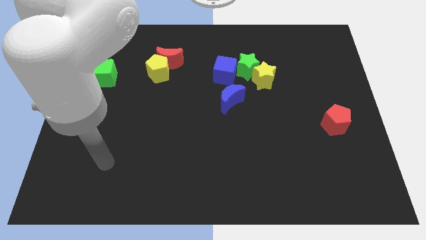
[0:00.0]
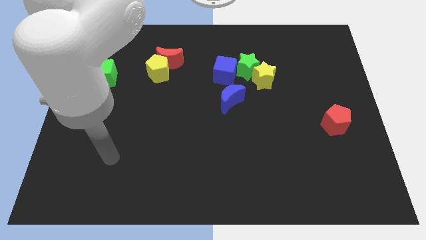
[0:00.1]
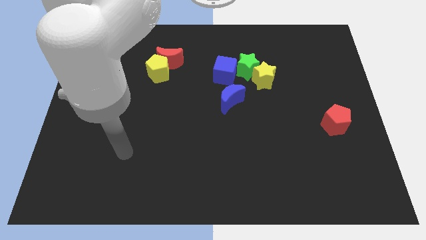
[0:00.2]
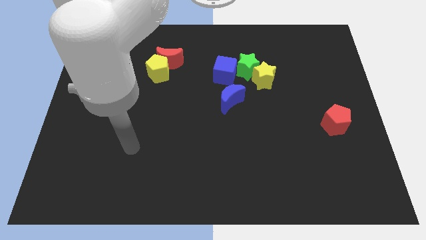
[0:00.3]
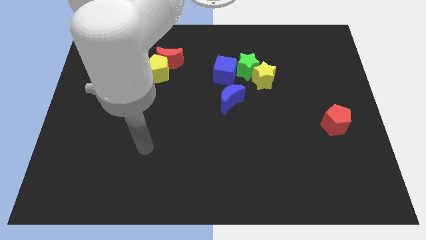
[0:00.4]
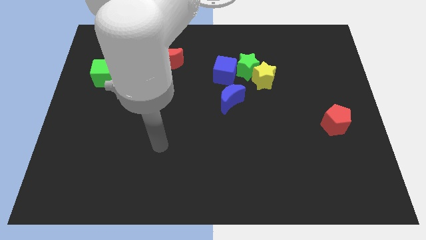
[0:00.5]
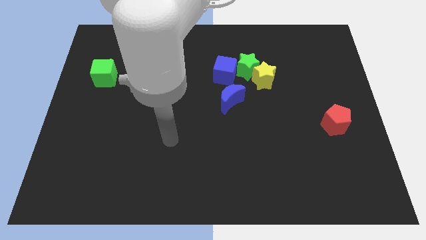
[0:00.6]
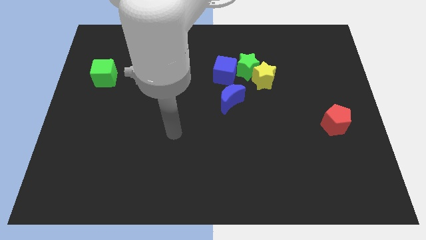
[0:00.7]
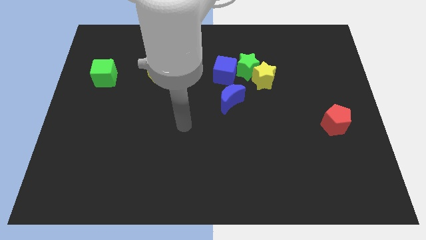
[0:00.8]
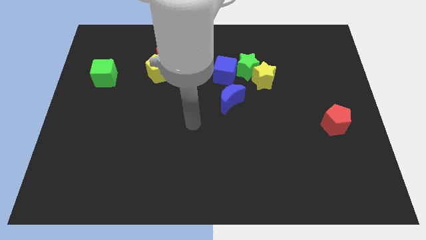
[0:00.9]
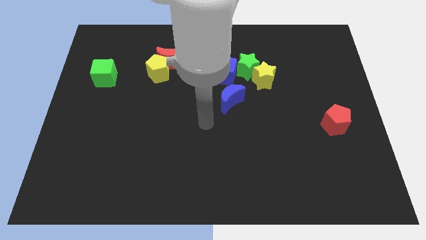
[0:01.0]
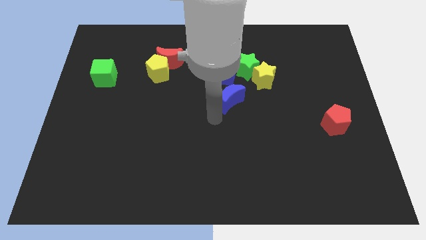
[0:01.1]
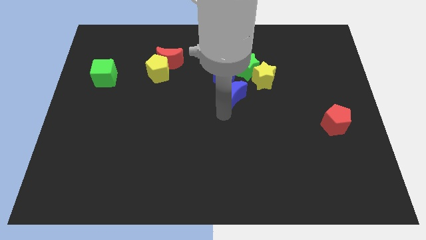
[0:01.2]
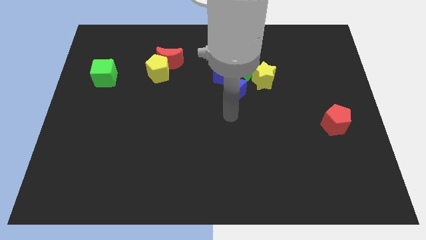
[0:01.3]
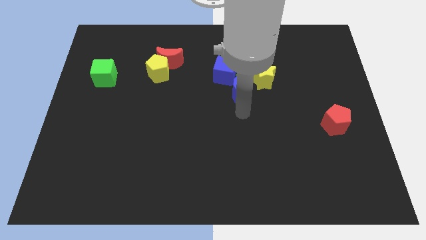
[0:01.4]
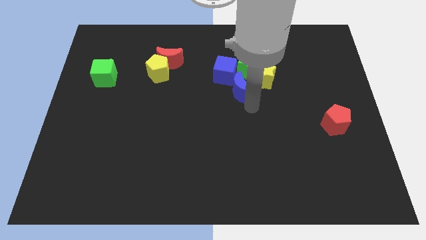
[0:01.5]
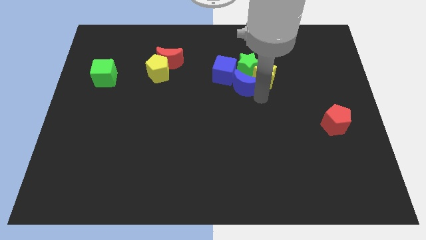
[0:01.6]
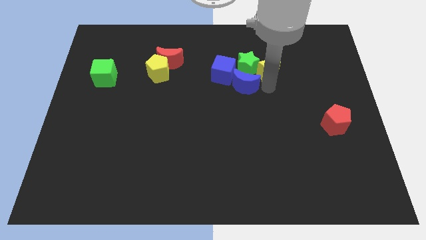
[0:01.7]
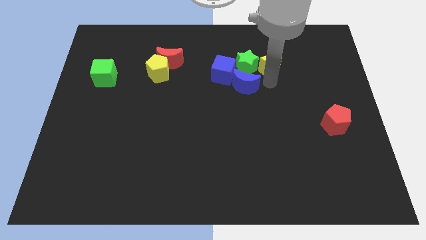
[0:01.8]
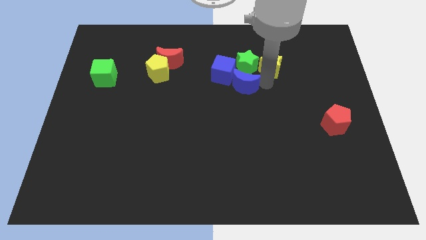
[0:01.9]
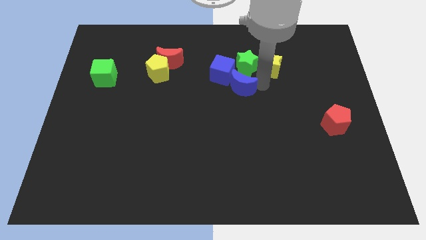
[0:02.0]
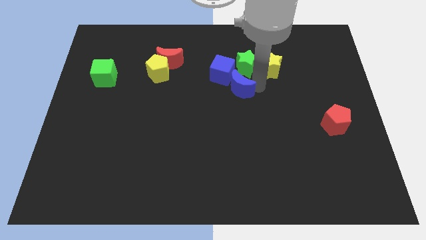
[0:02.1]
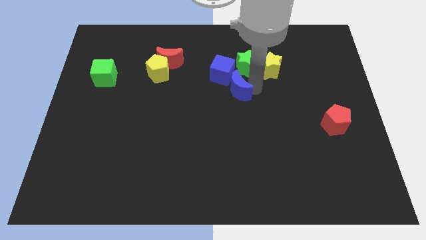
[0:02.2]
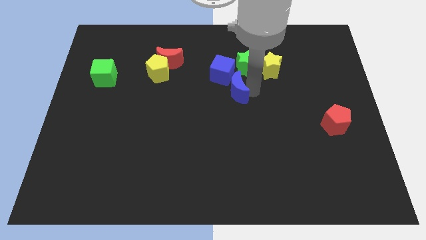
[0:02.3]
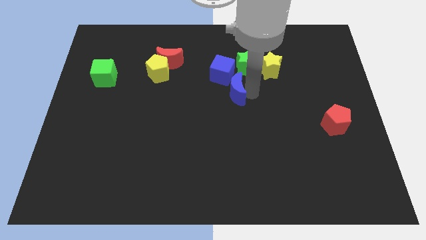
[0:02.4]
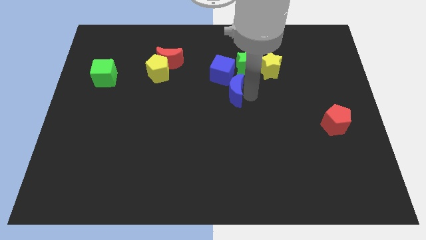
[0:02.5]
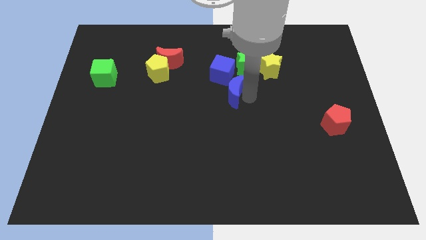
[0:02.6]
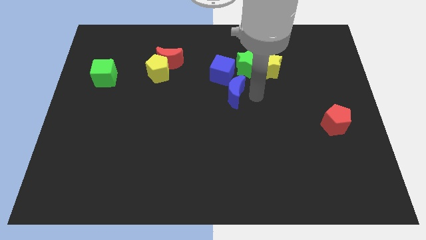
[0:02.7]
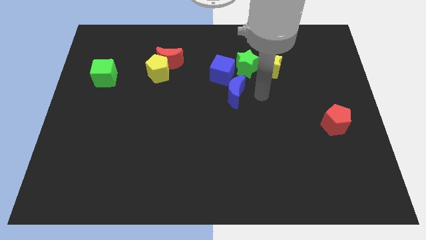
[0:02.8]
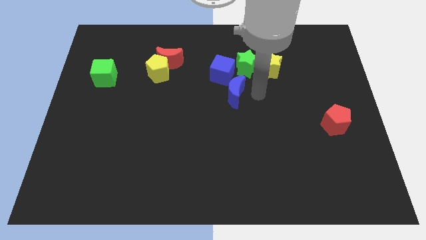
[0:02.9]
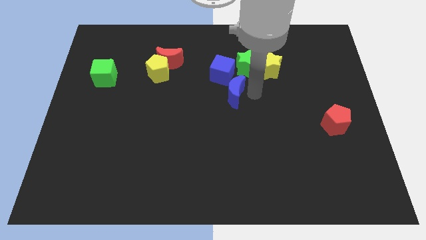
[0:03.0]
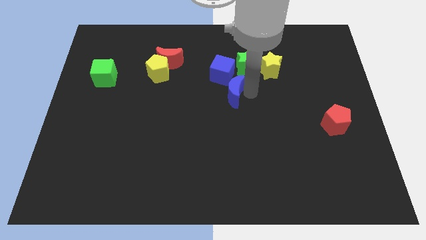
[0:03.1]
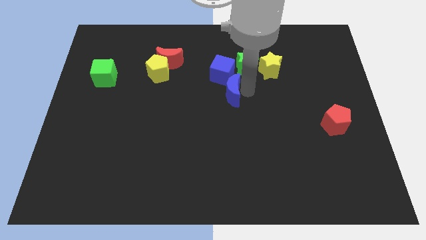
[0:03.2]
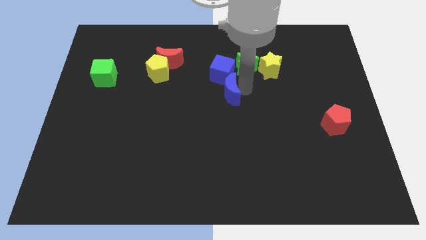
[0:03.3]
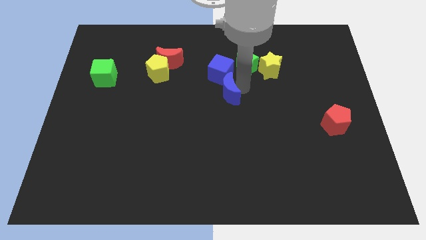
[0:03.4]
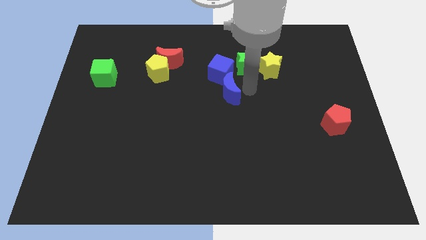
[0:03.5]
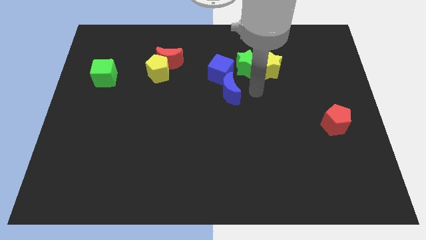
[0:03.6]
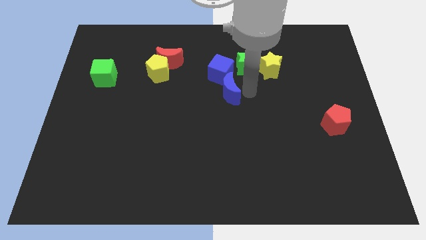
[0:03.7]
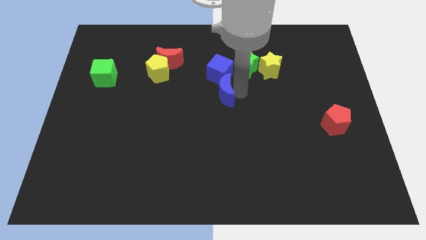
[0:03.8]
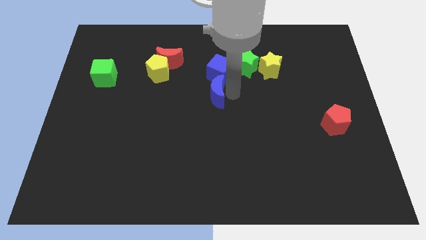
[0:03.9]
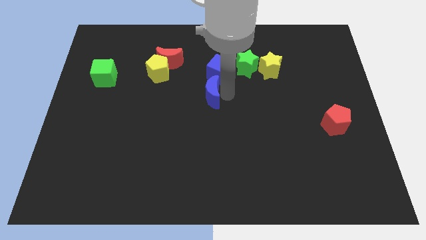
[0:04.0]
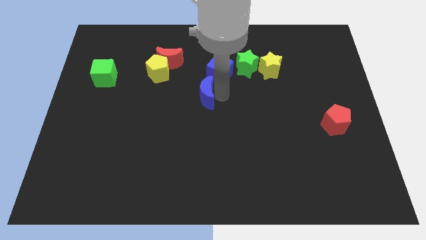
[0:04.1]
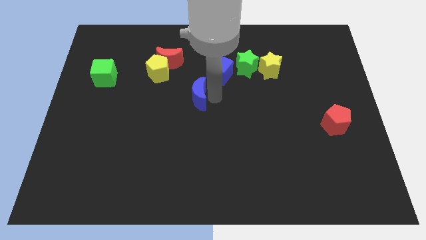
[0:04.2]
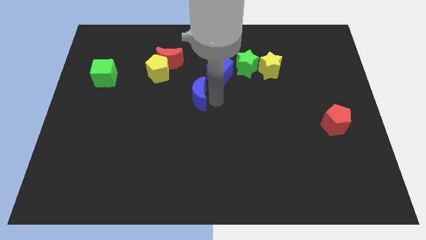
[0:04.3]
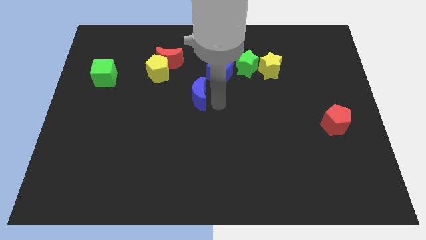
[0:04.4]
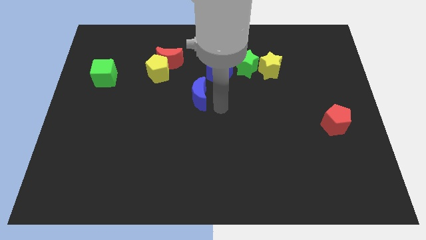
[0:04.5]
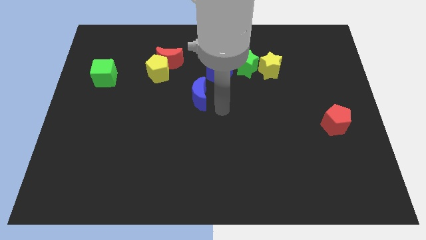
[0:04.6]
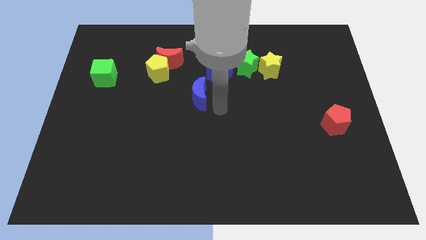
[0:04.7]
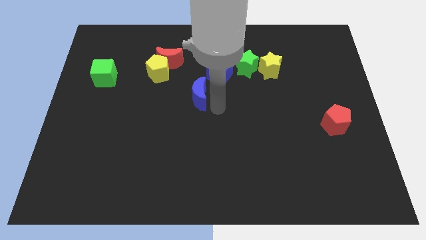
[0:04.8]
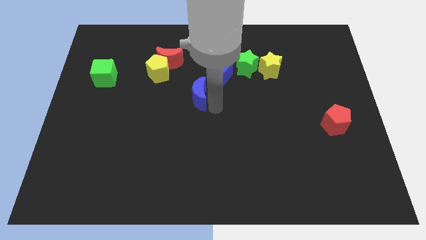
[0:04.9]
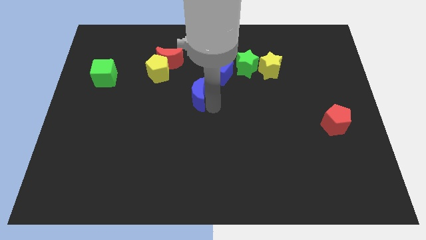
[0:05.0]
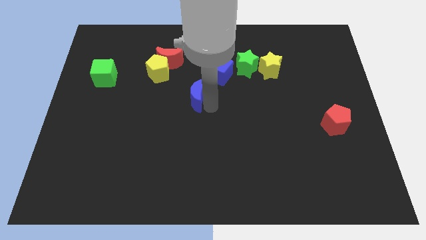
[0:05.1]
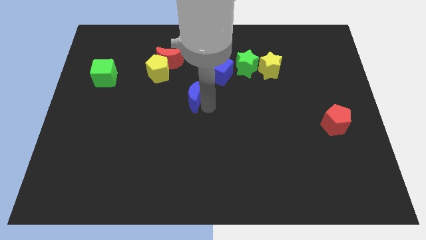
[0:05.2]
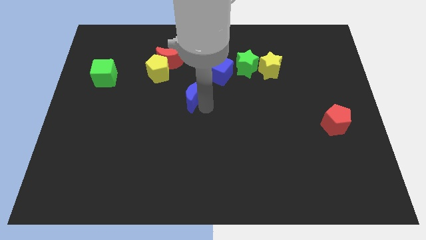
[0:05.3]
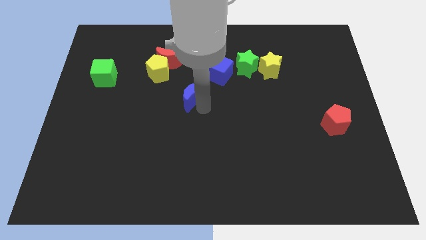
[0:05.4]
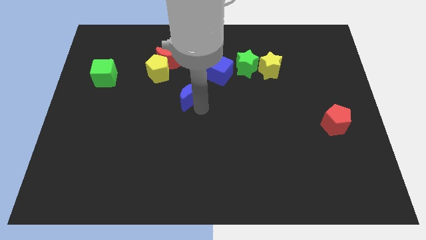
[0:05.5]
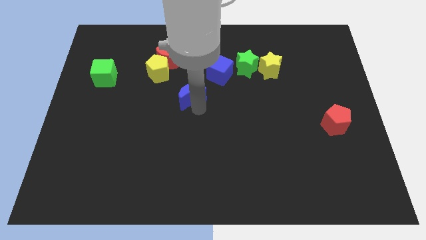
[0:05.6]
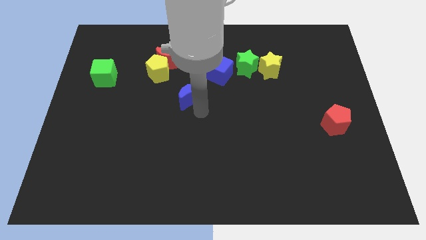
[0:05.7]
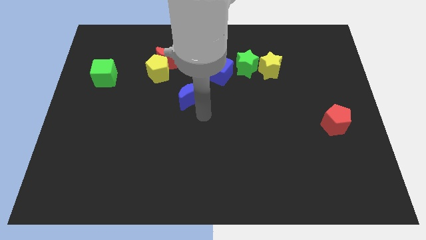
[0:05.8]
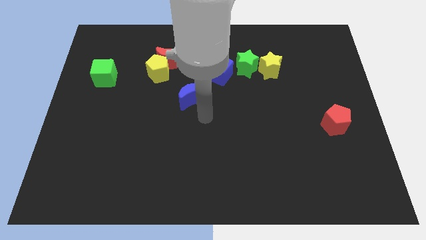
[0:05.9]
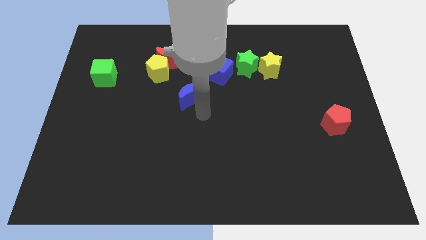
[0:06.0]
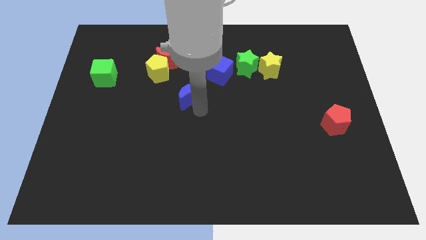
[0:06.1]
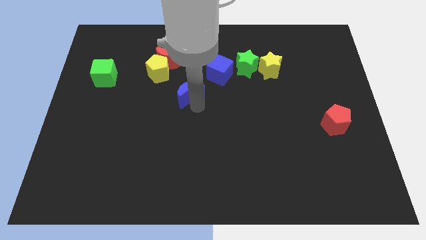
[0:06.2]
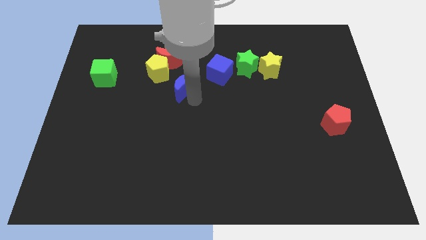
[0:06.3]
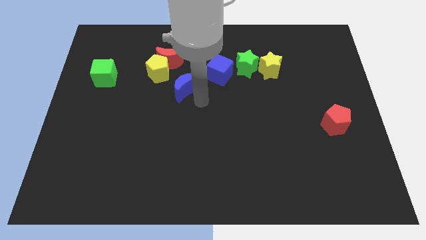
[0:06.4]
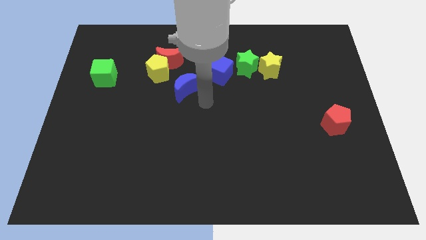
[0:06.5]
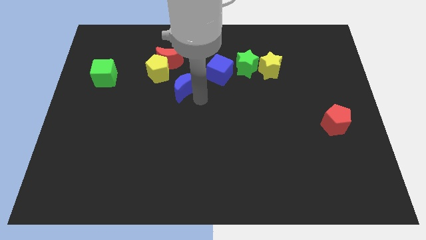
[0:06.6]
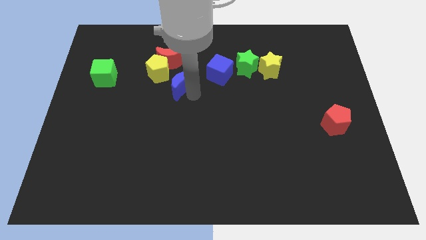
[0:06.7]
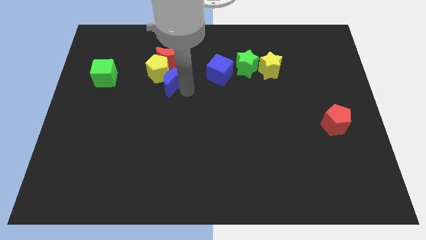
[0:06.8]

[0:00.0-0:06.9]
move the blue moon to the yellow pentagon
